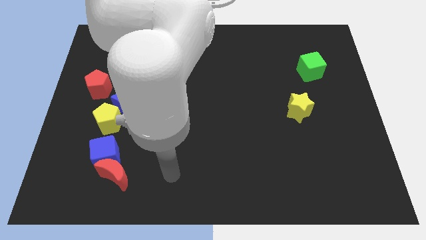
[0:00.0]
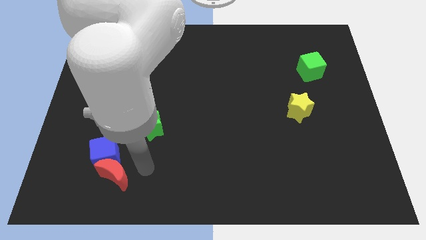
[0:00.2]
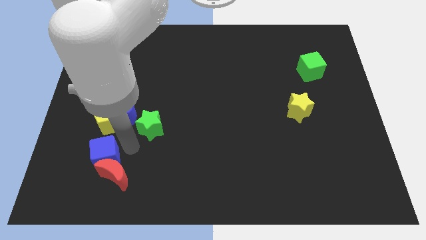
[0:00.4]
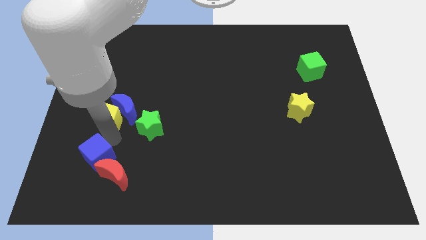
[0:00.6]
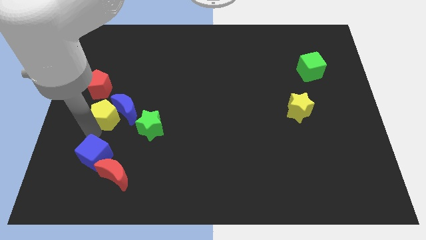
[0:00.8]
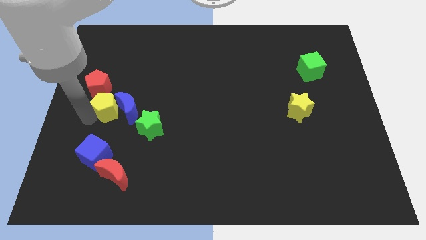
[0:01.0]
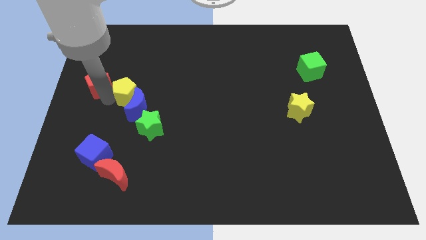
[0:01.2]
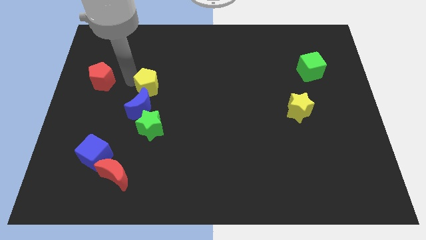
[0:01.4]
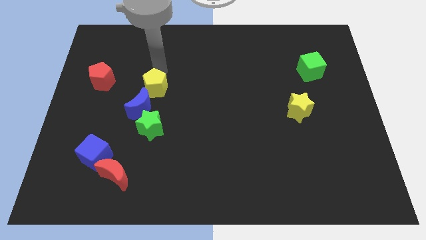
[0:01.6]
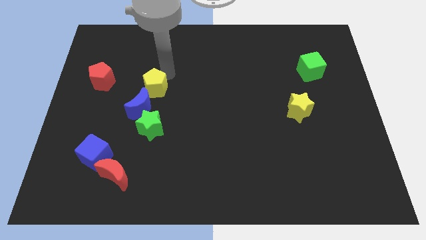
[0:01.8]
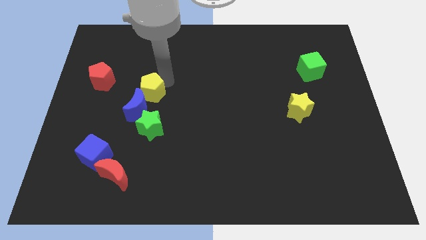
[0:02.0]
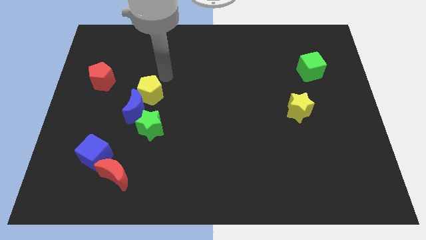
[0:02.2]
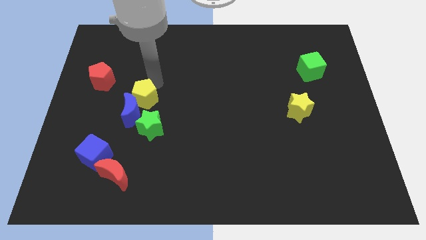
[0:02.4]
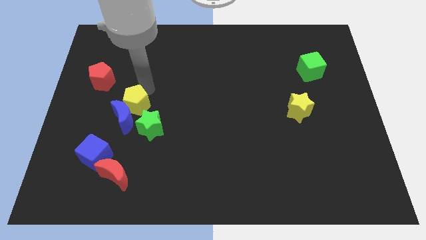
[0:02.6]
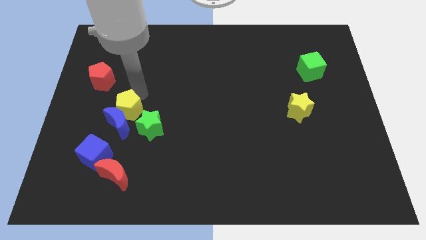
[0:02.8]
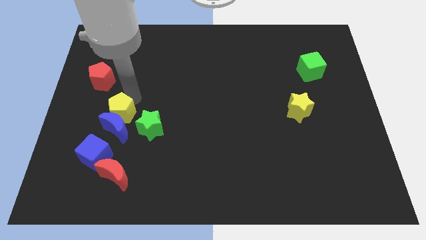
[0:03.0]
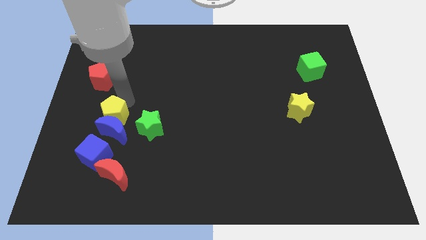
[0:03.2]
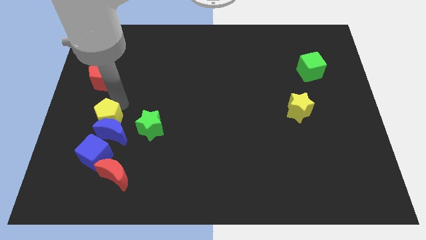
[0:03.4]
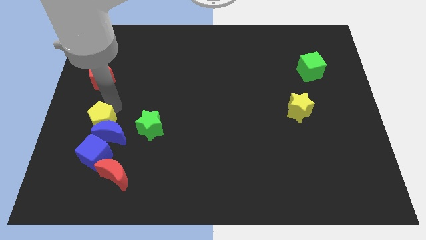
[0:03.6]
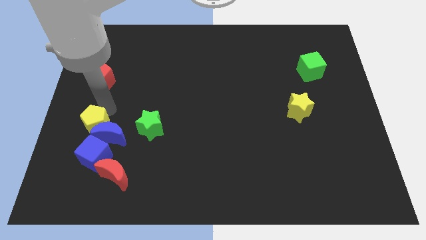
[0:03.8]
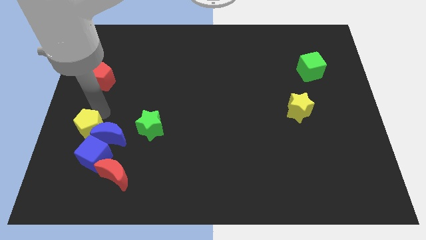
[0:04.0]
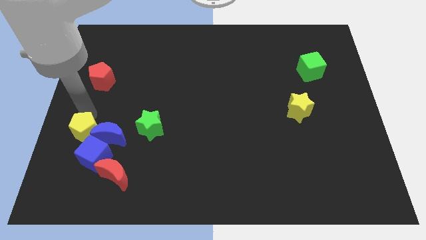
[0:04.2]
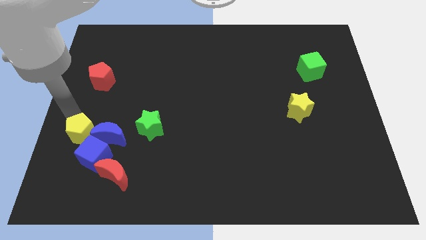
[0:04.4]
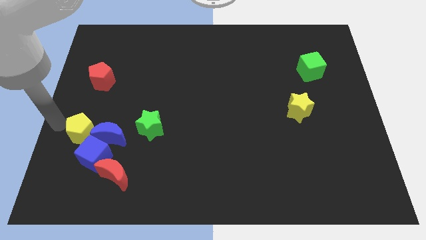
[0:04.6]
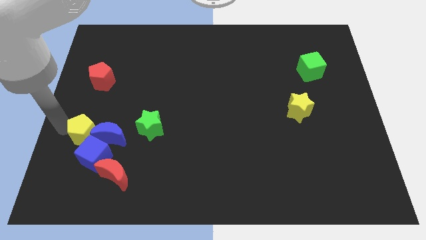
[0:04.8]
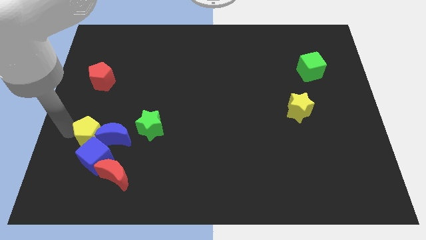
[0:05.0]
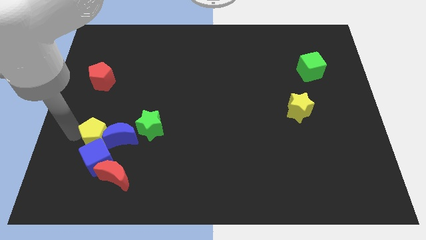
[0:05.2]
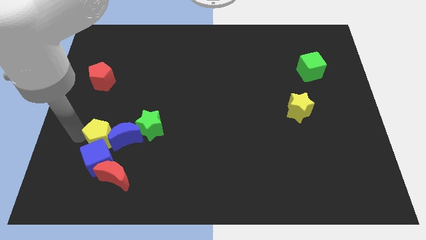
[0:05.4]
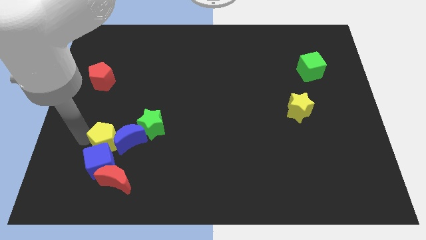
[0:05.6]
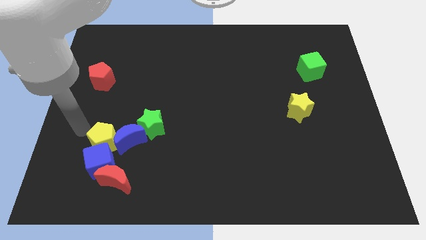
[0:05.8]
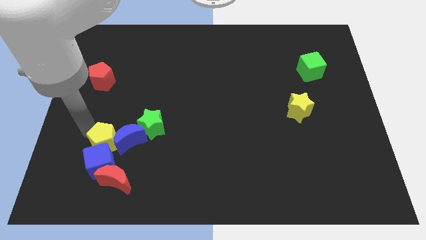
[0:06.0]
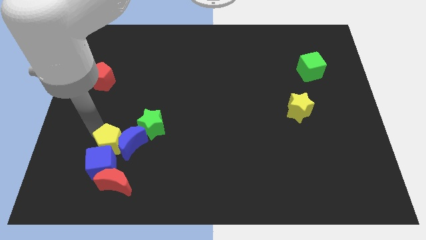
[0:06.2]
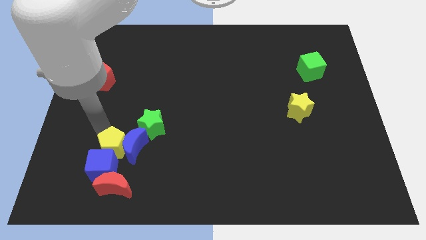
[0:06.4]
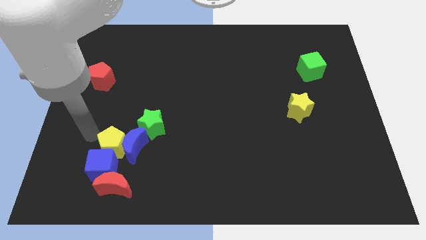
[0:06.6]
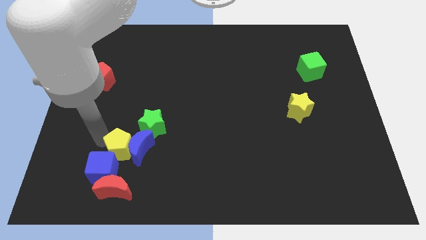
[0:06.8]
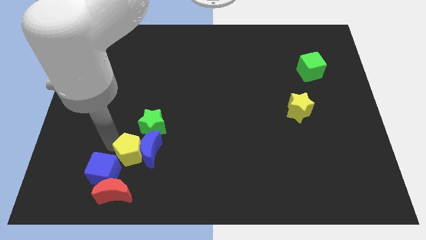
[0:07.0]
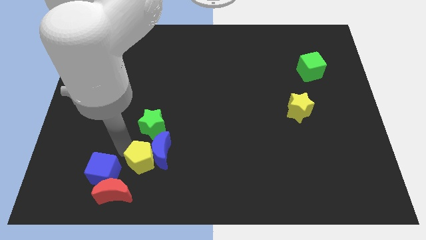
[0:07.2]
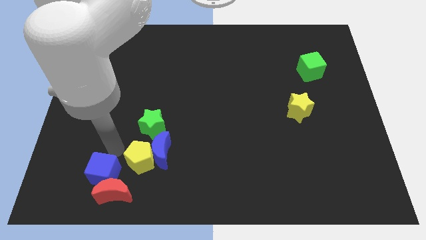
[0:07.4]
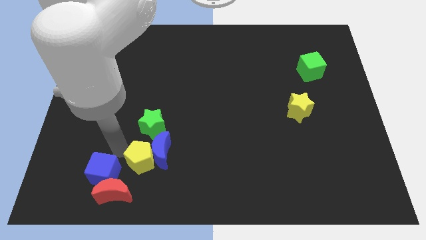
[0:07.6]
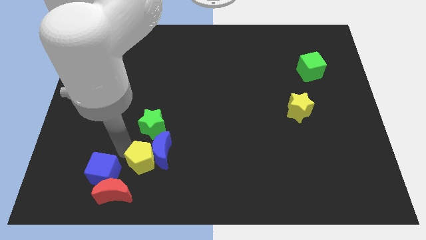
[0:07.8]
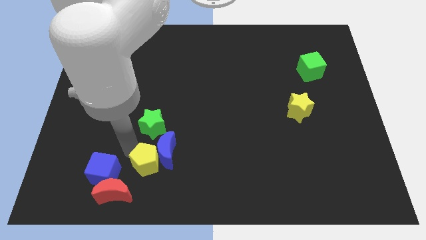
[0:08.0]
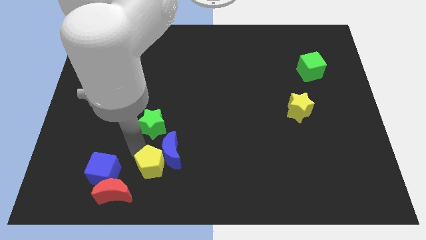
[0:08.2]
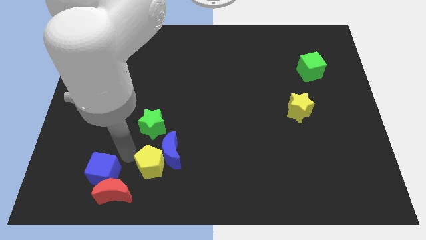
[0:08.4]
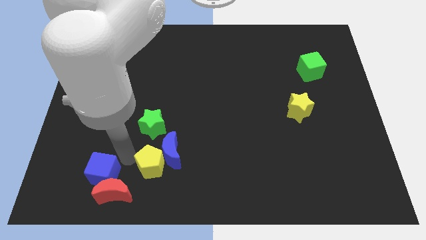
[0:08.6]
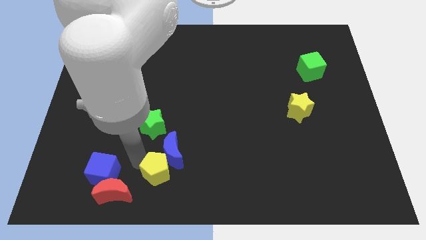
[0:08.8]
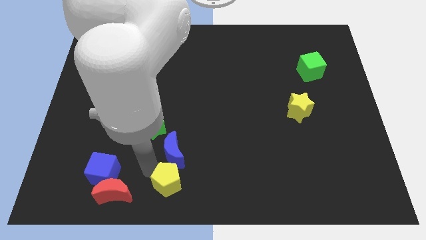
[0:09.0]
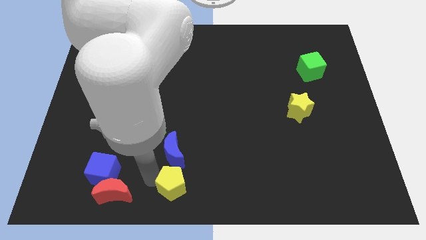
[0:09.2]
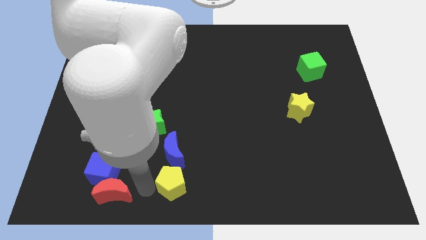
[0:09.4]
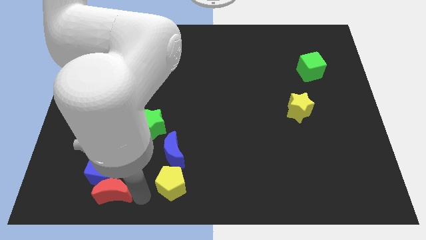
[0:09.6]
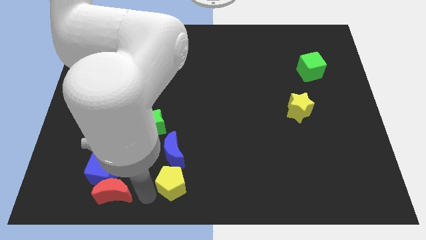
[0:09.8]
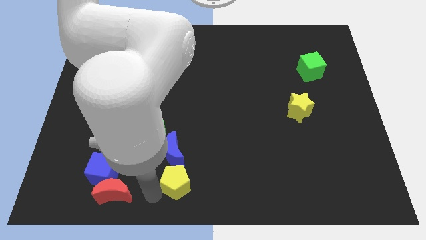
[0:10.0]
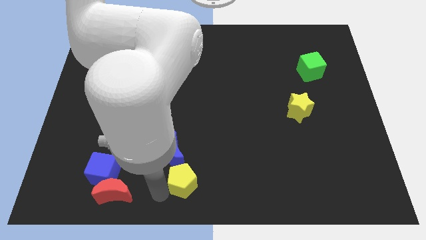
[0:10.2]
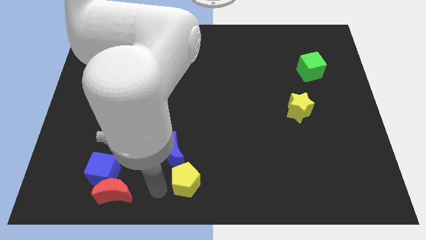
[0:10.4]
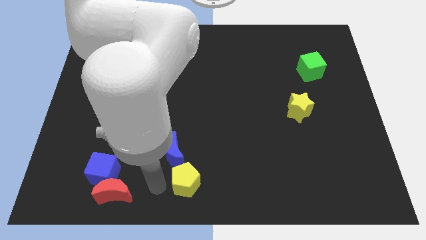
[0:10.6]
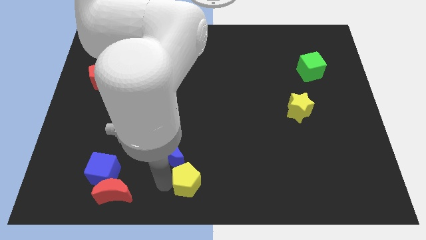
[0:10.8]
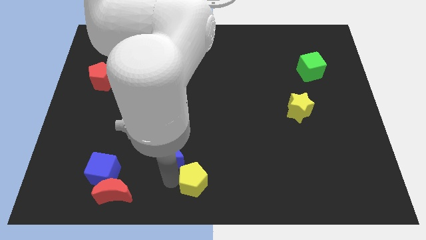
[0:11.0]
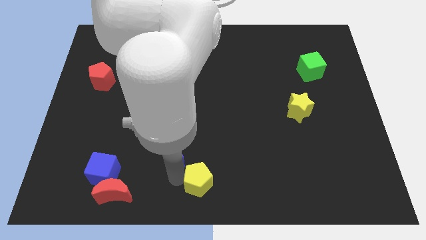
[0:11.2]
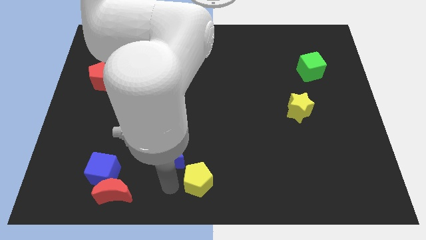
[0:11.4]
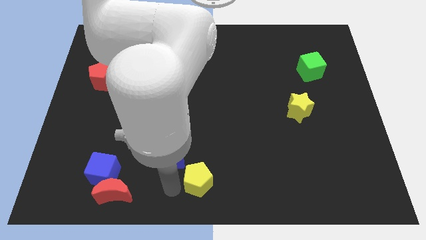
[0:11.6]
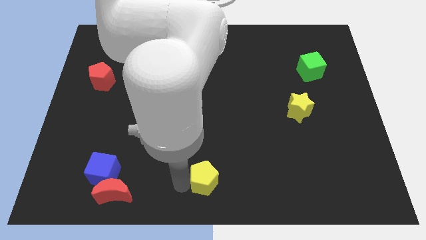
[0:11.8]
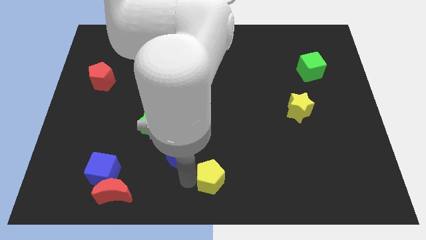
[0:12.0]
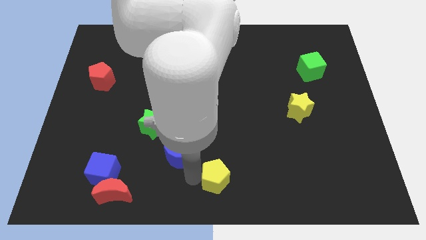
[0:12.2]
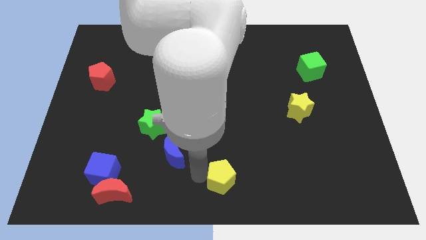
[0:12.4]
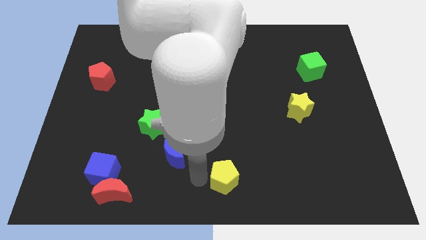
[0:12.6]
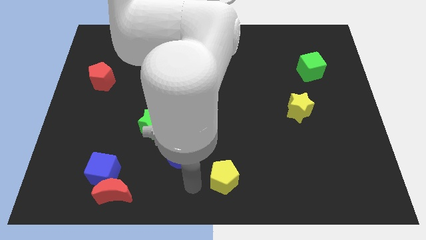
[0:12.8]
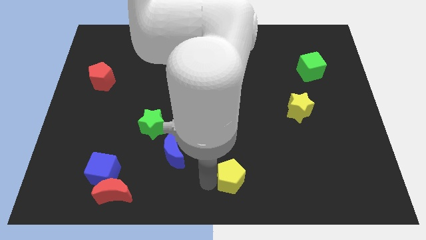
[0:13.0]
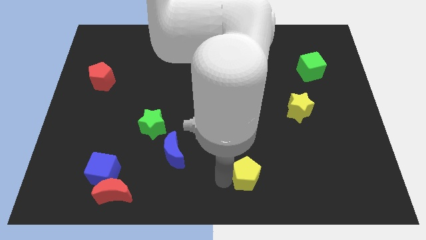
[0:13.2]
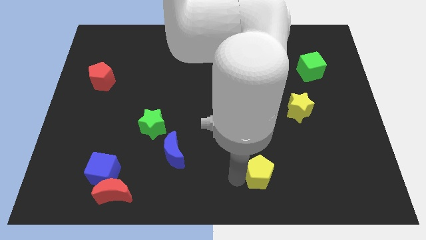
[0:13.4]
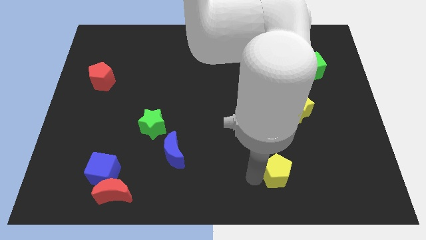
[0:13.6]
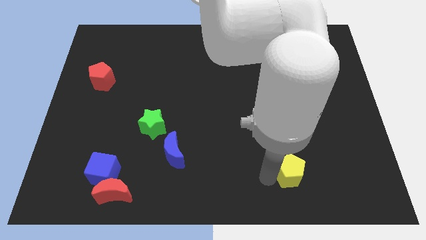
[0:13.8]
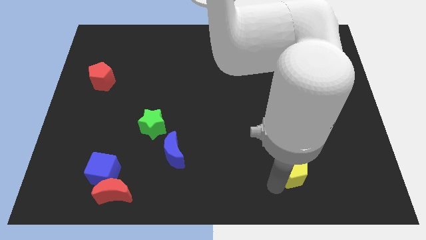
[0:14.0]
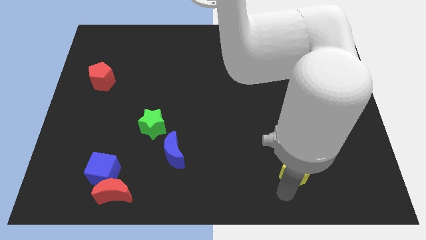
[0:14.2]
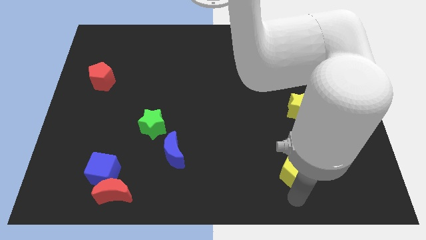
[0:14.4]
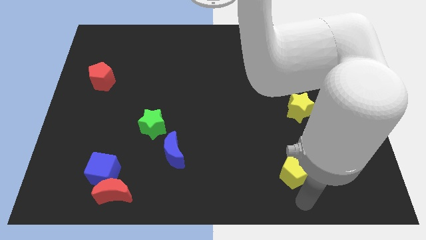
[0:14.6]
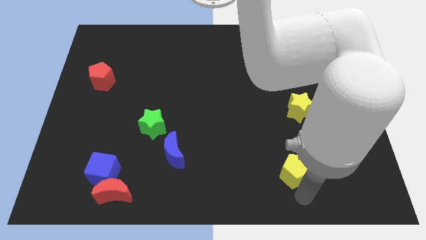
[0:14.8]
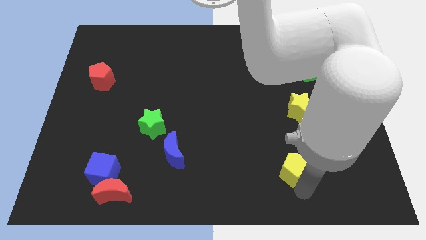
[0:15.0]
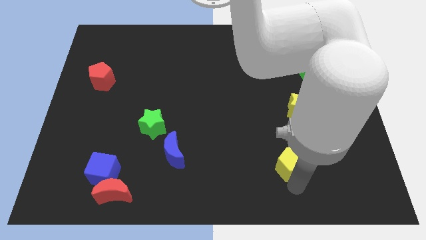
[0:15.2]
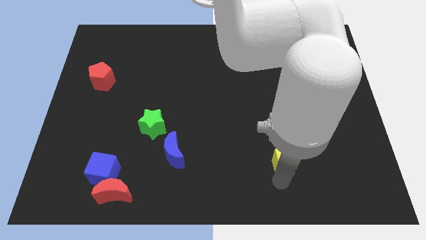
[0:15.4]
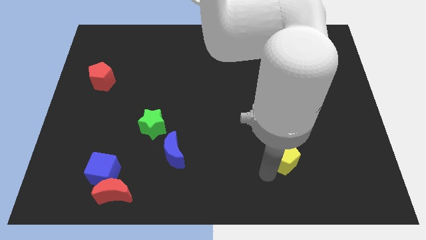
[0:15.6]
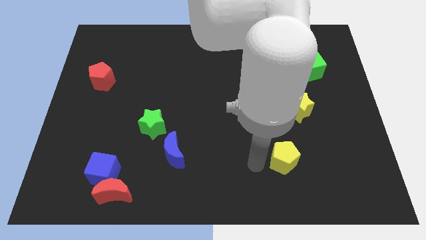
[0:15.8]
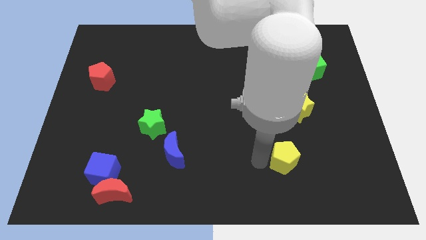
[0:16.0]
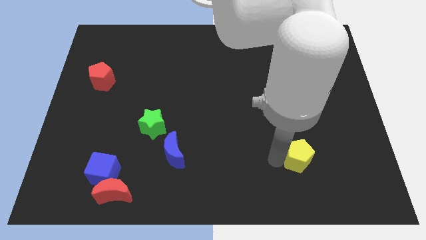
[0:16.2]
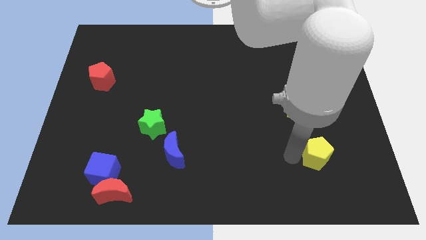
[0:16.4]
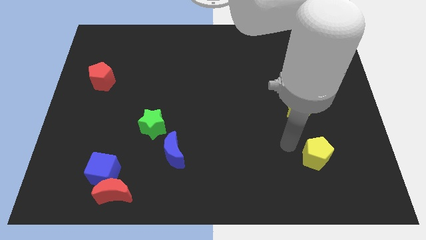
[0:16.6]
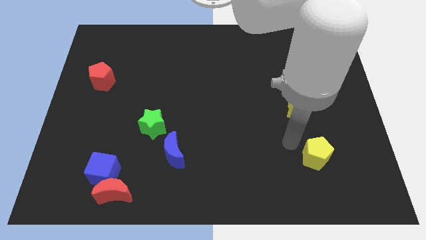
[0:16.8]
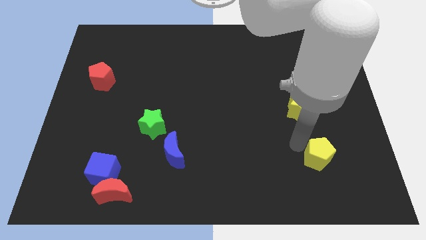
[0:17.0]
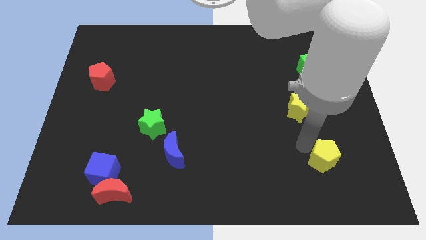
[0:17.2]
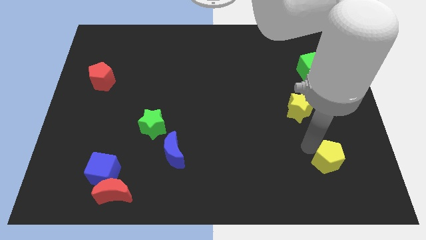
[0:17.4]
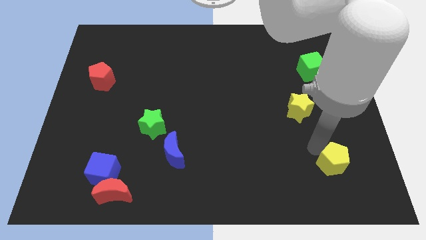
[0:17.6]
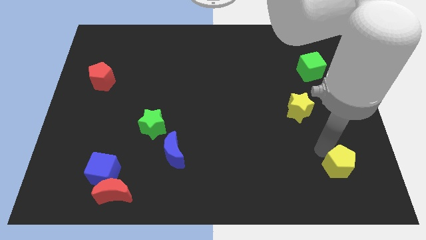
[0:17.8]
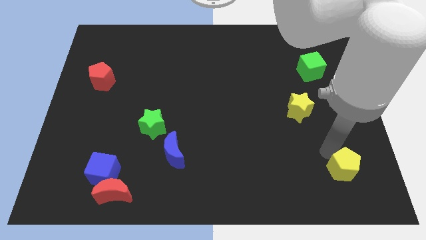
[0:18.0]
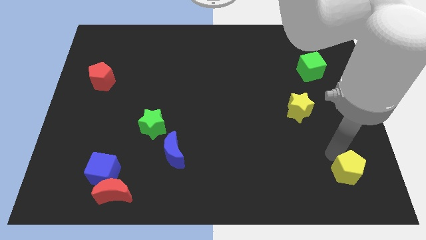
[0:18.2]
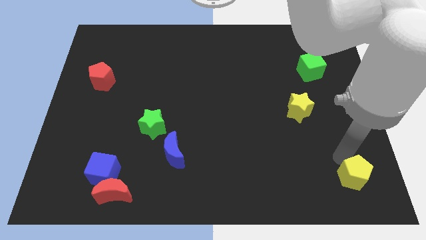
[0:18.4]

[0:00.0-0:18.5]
push the yellow pentagon to the bottom right corner
